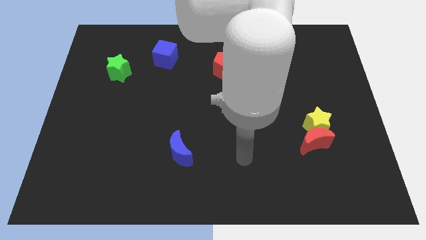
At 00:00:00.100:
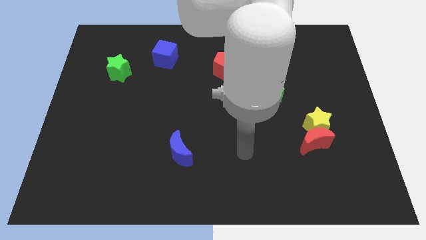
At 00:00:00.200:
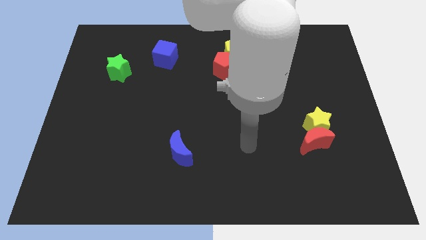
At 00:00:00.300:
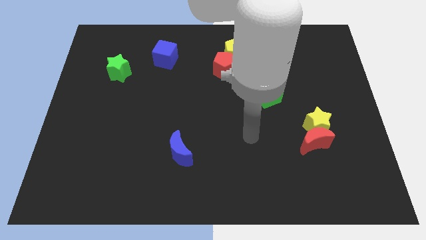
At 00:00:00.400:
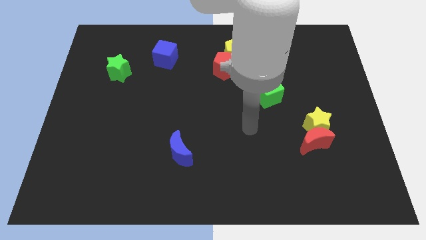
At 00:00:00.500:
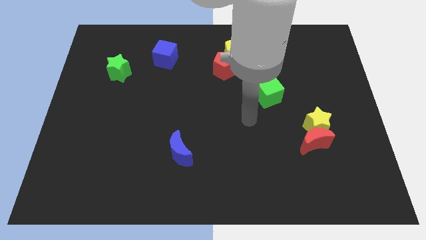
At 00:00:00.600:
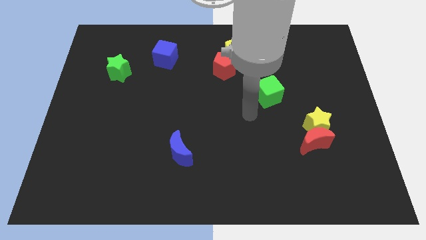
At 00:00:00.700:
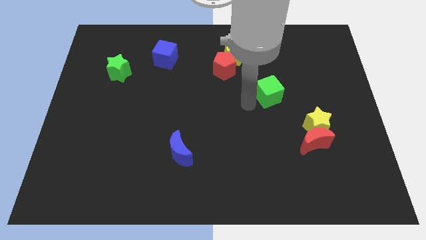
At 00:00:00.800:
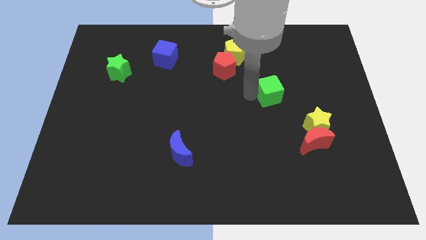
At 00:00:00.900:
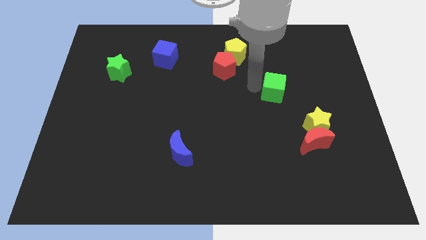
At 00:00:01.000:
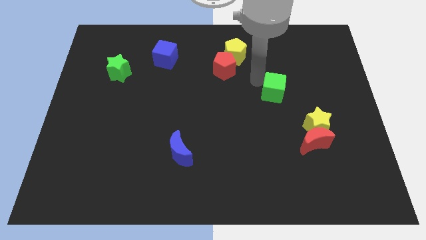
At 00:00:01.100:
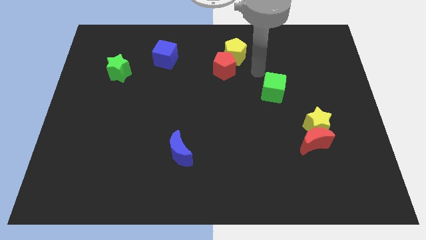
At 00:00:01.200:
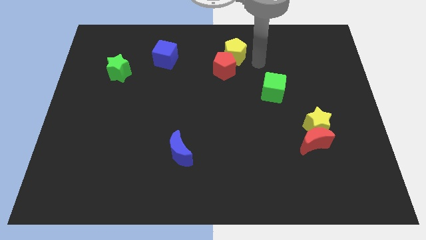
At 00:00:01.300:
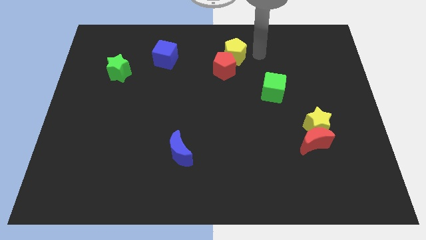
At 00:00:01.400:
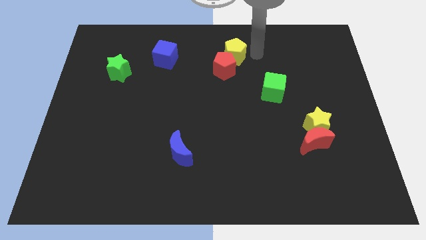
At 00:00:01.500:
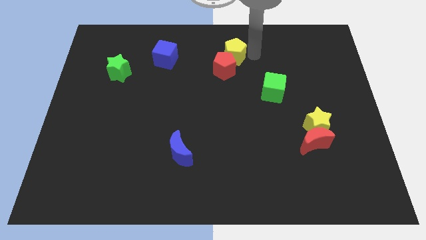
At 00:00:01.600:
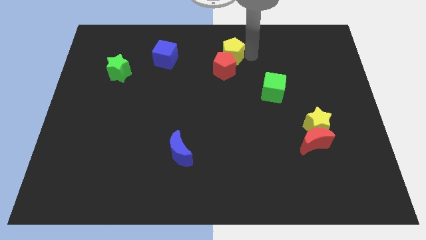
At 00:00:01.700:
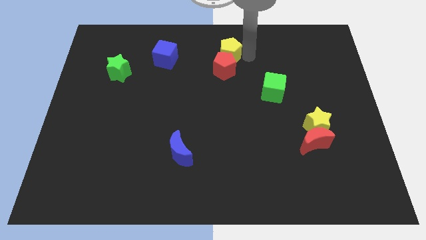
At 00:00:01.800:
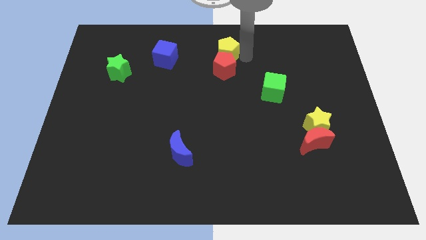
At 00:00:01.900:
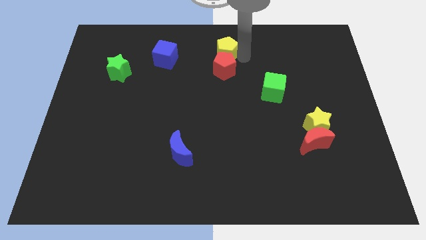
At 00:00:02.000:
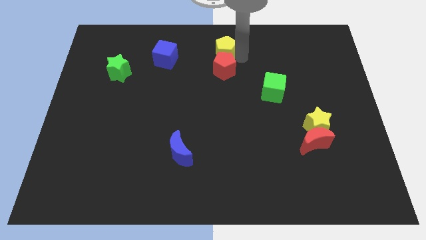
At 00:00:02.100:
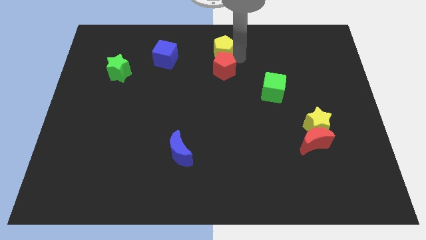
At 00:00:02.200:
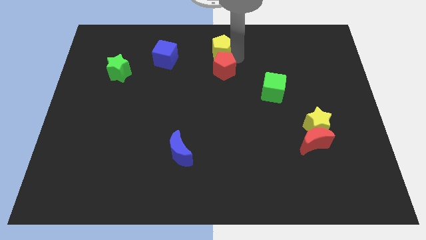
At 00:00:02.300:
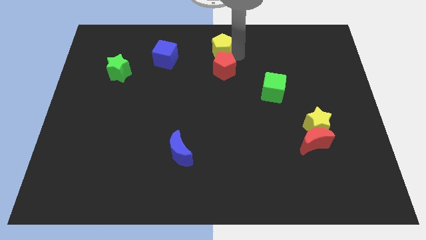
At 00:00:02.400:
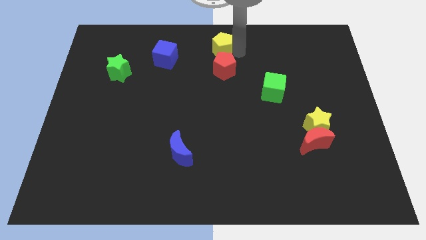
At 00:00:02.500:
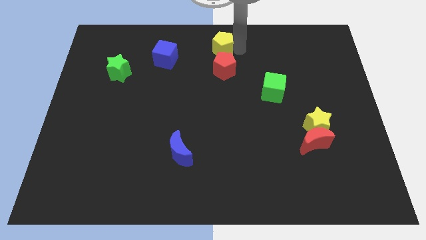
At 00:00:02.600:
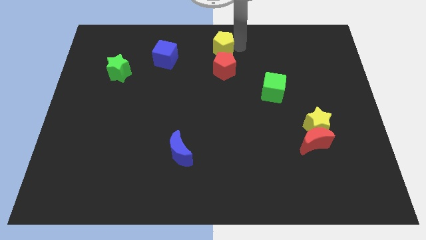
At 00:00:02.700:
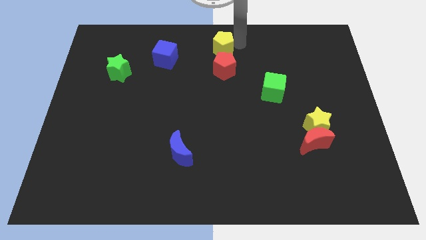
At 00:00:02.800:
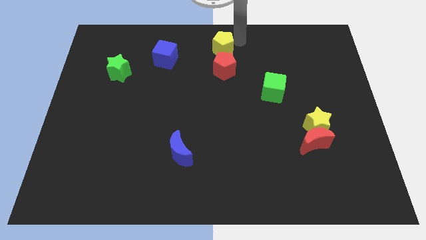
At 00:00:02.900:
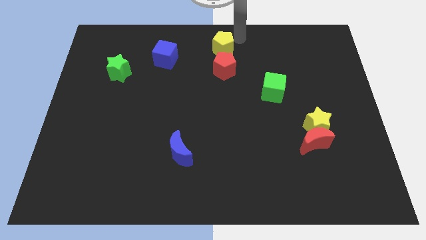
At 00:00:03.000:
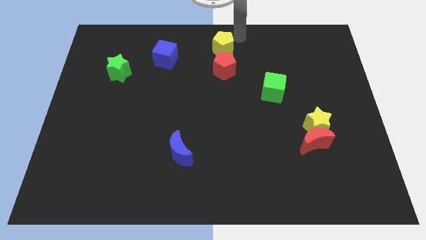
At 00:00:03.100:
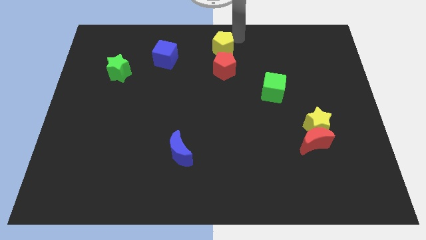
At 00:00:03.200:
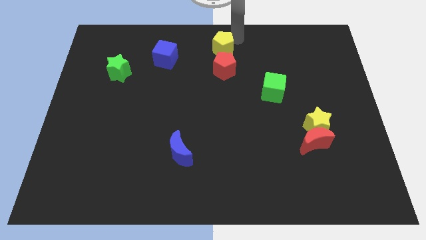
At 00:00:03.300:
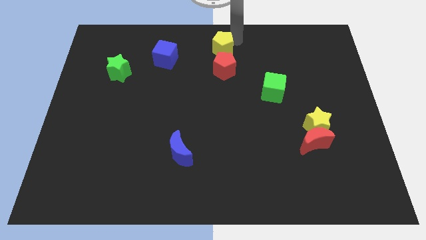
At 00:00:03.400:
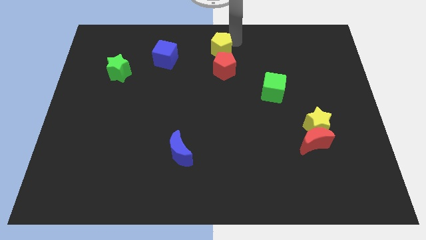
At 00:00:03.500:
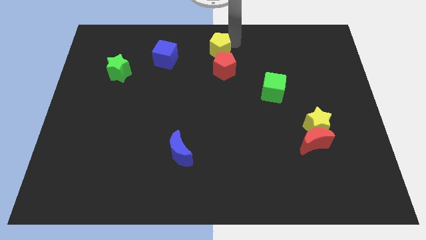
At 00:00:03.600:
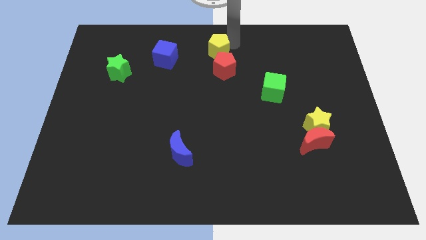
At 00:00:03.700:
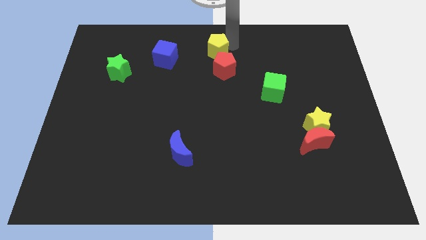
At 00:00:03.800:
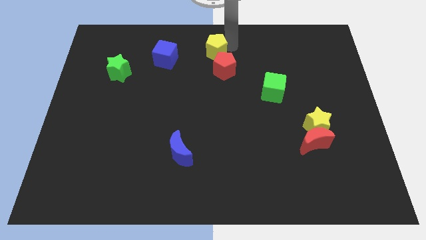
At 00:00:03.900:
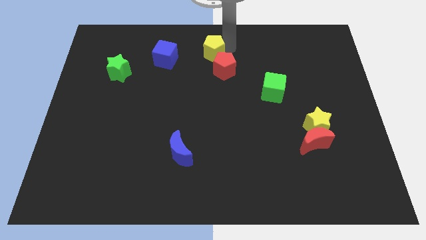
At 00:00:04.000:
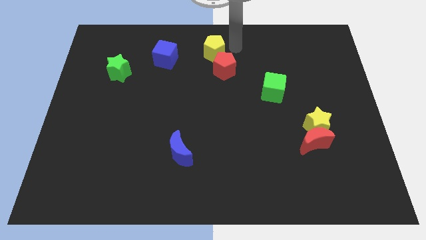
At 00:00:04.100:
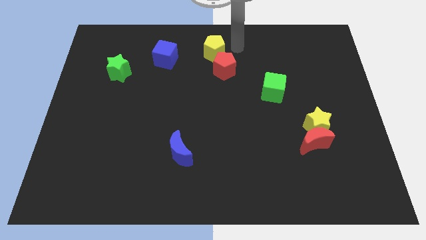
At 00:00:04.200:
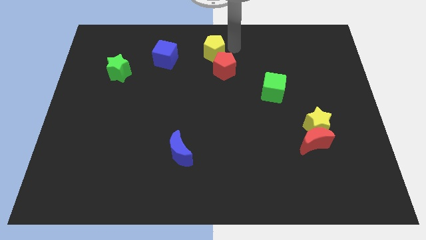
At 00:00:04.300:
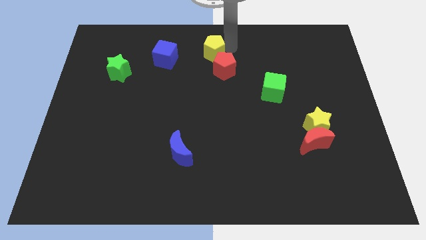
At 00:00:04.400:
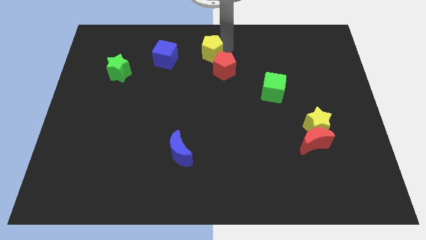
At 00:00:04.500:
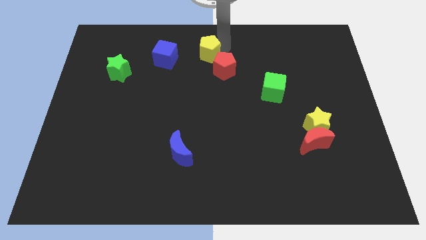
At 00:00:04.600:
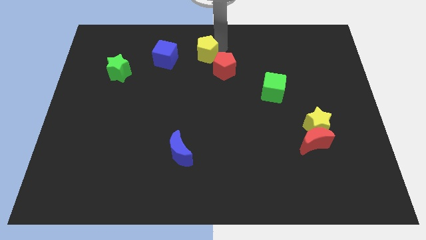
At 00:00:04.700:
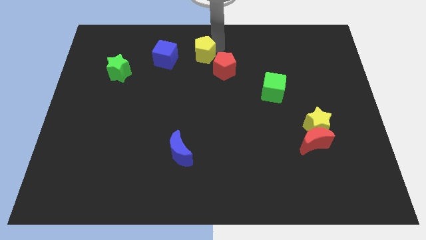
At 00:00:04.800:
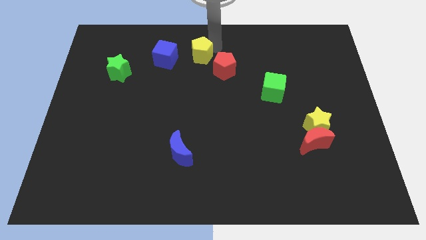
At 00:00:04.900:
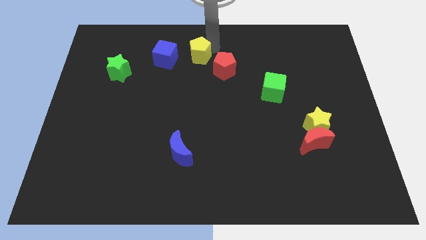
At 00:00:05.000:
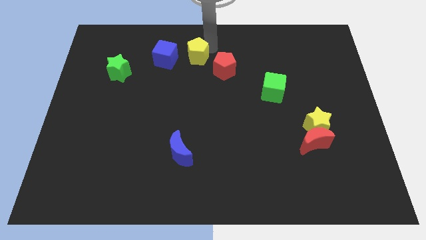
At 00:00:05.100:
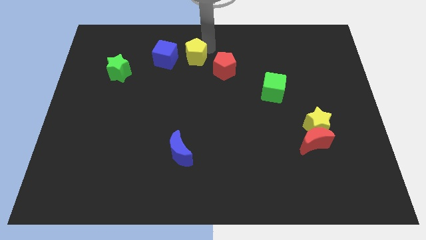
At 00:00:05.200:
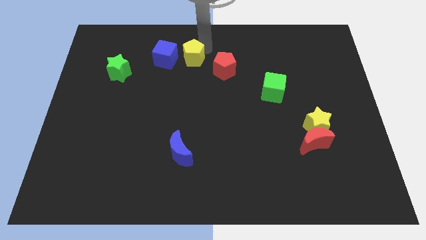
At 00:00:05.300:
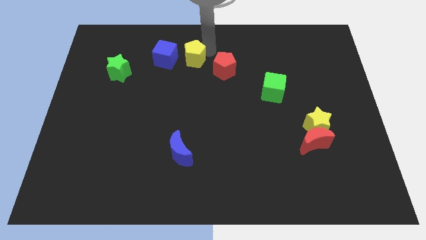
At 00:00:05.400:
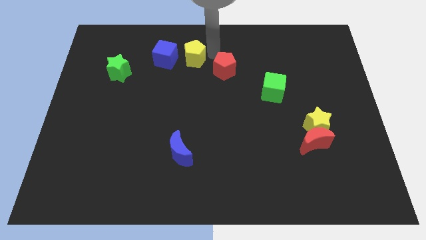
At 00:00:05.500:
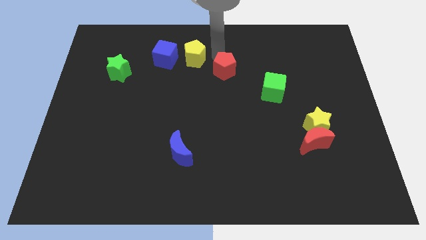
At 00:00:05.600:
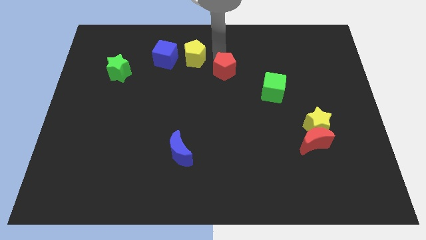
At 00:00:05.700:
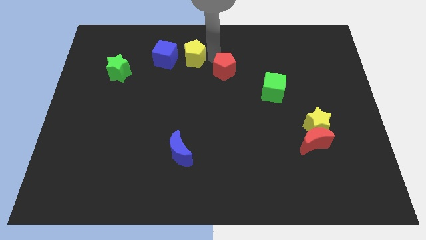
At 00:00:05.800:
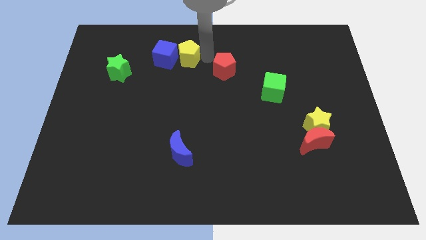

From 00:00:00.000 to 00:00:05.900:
move the yellow pentagon to the blue cube

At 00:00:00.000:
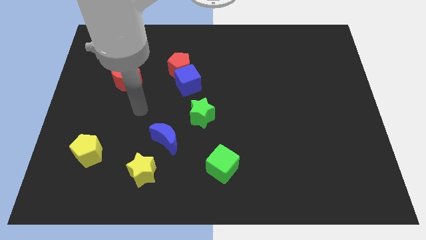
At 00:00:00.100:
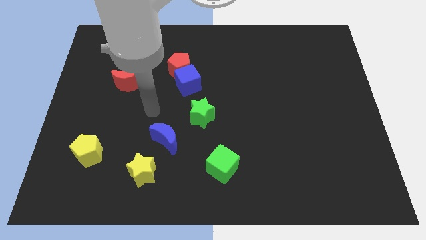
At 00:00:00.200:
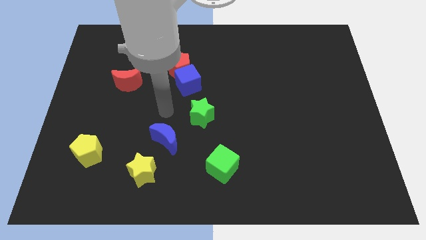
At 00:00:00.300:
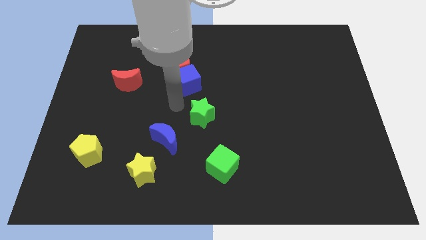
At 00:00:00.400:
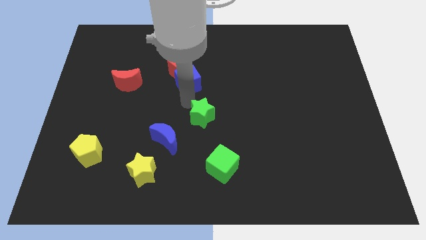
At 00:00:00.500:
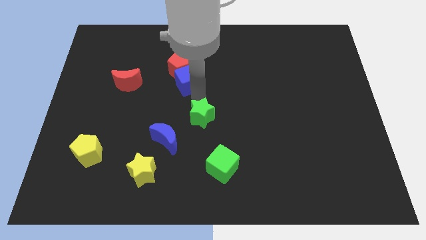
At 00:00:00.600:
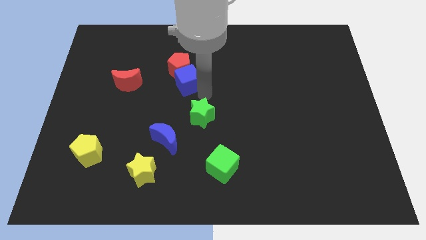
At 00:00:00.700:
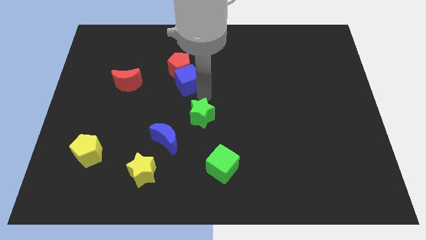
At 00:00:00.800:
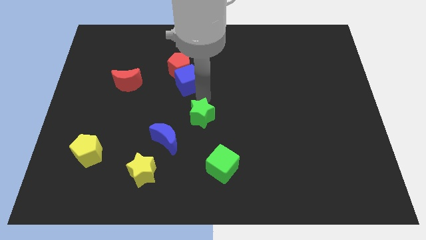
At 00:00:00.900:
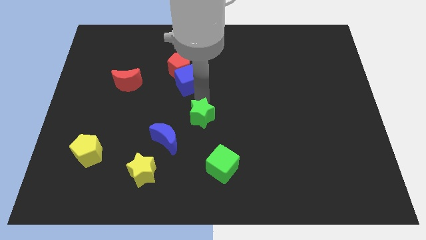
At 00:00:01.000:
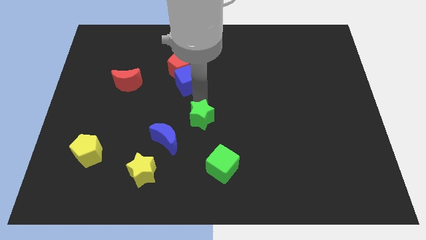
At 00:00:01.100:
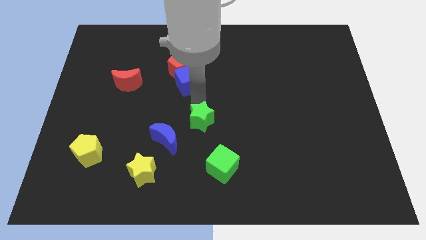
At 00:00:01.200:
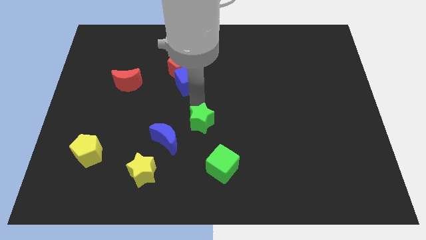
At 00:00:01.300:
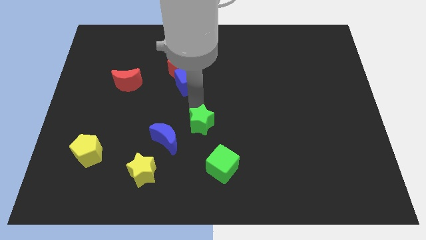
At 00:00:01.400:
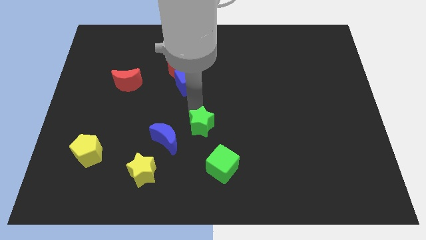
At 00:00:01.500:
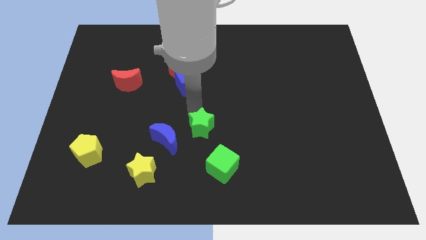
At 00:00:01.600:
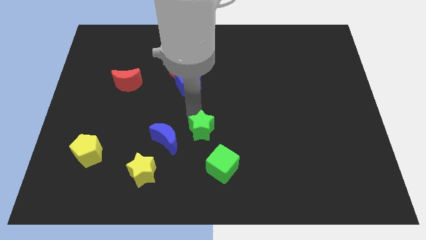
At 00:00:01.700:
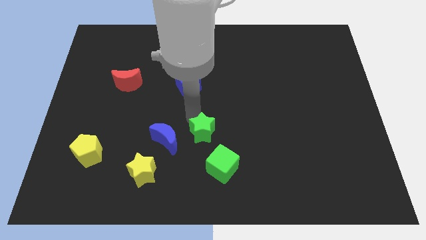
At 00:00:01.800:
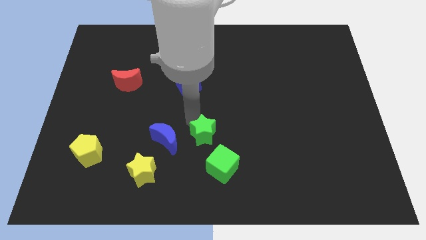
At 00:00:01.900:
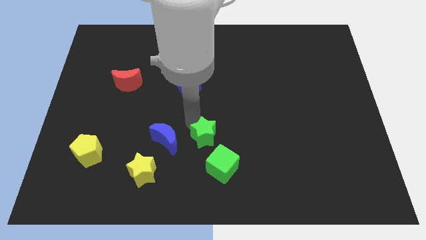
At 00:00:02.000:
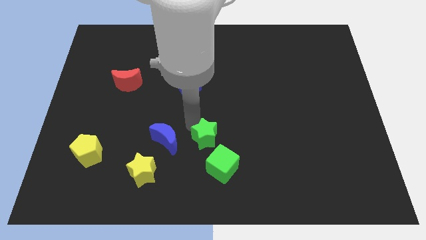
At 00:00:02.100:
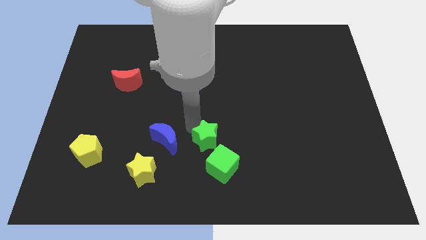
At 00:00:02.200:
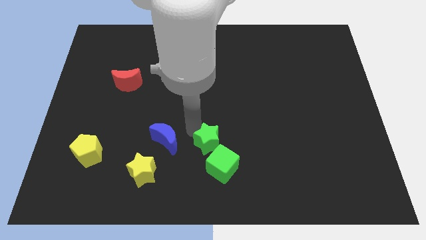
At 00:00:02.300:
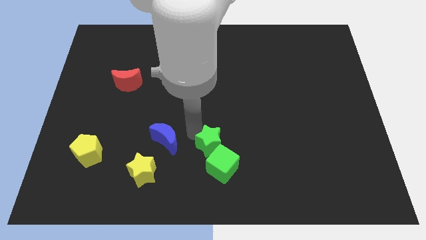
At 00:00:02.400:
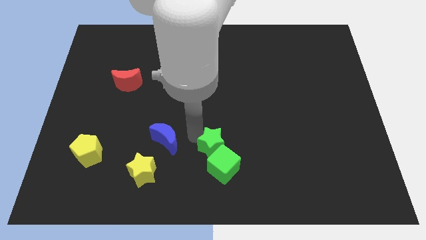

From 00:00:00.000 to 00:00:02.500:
put the green star towards the green cube
